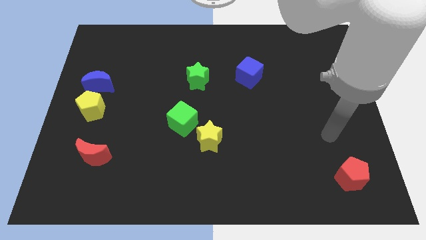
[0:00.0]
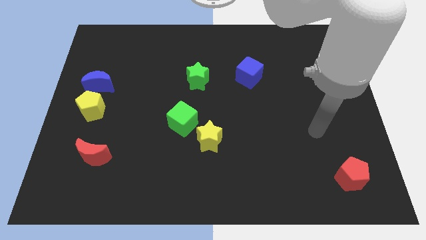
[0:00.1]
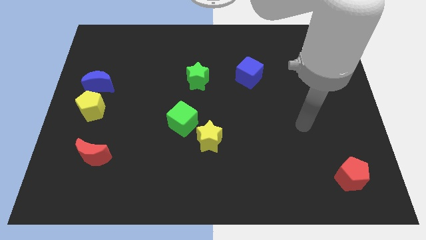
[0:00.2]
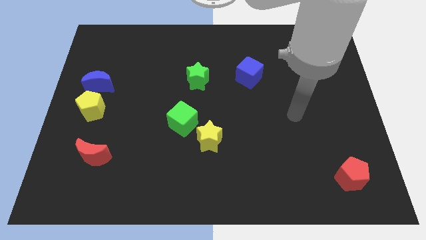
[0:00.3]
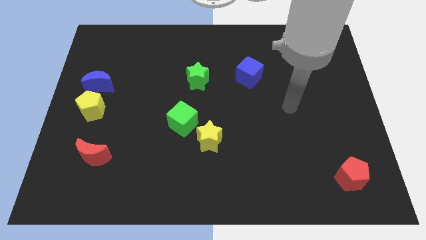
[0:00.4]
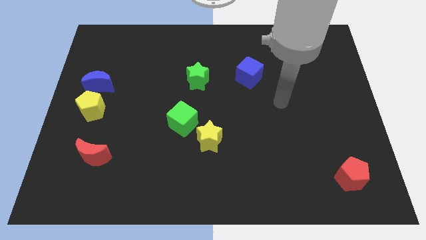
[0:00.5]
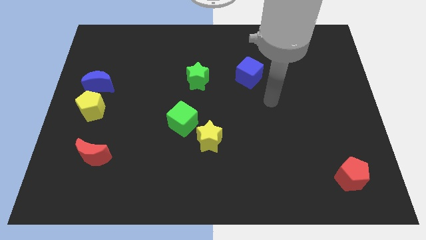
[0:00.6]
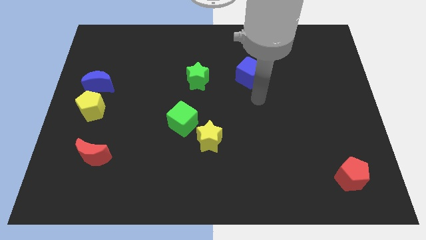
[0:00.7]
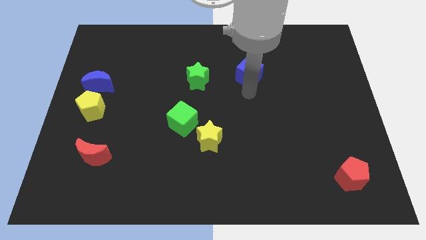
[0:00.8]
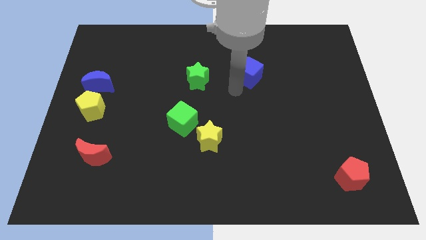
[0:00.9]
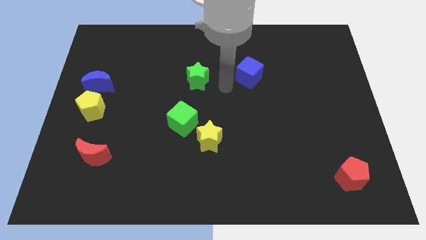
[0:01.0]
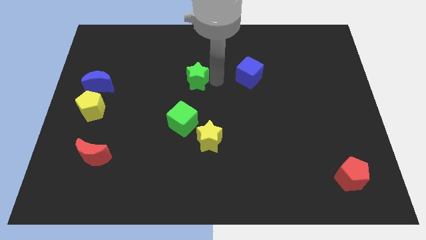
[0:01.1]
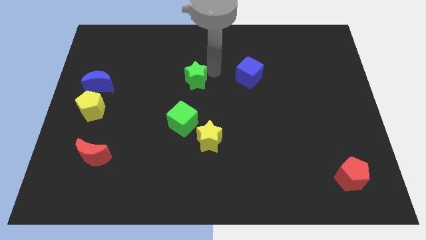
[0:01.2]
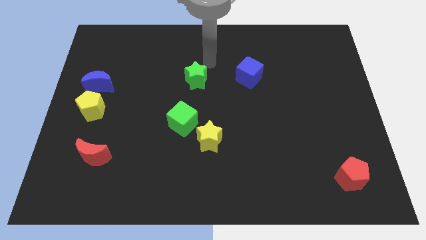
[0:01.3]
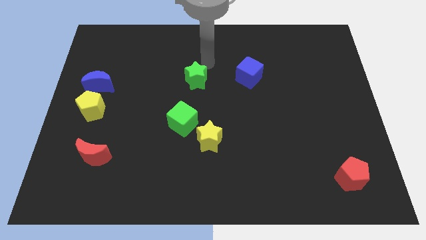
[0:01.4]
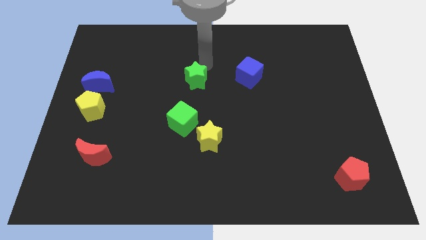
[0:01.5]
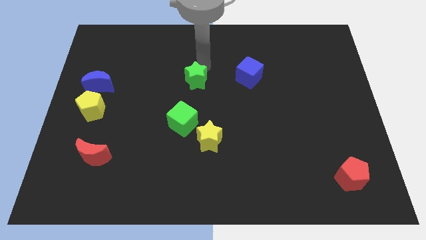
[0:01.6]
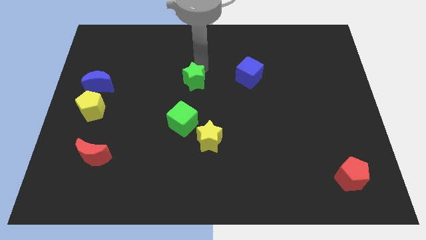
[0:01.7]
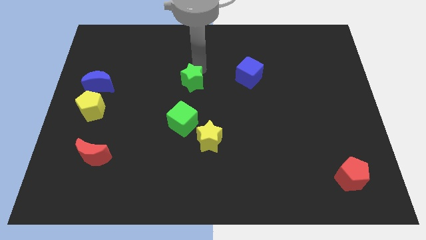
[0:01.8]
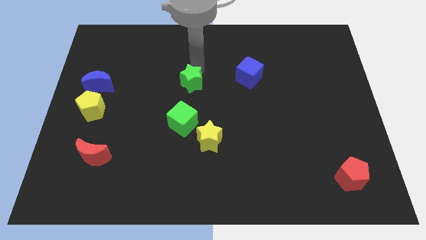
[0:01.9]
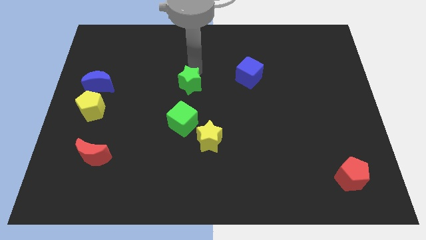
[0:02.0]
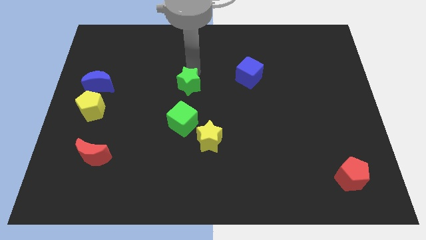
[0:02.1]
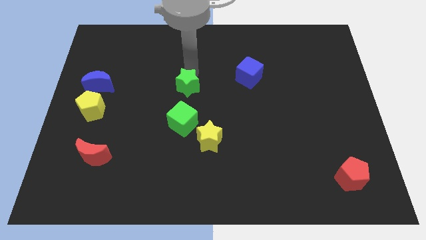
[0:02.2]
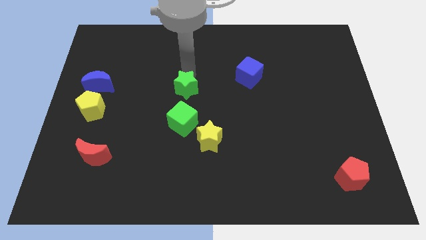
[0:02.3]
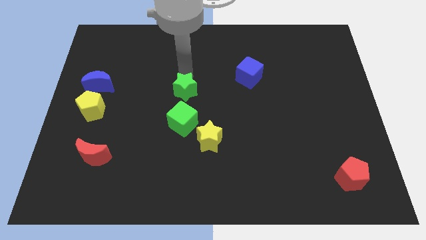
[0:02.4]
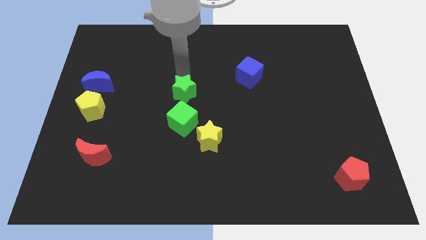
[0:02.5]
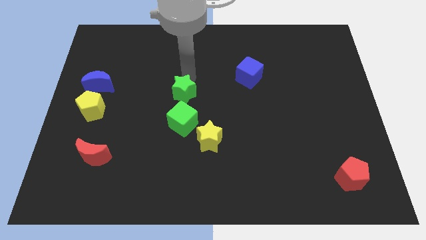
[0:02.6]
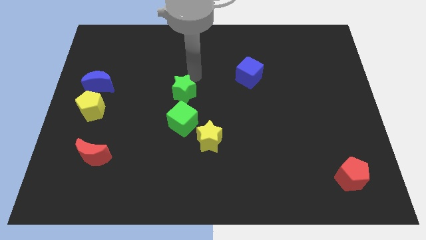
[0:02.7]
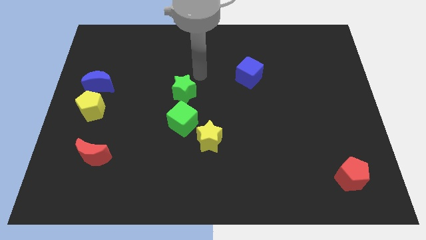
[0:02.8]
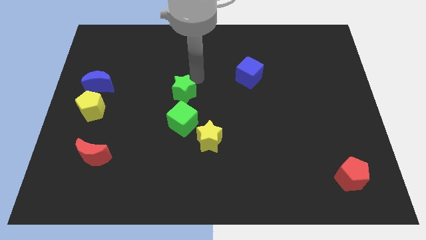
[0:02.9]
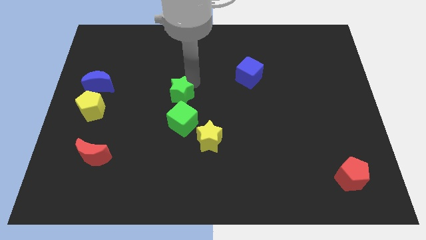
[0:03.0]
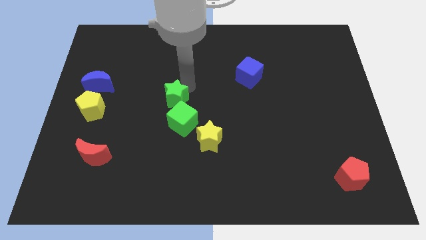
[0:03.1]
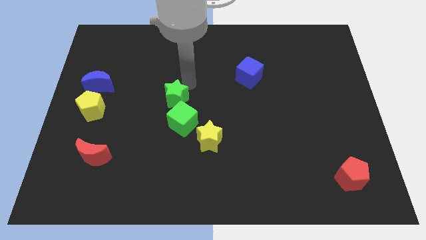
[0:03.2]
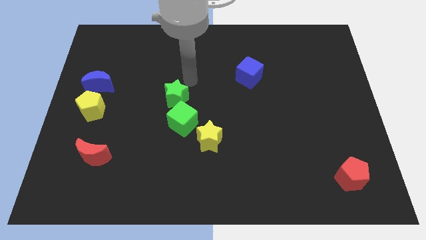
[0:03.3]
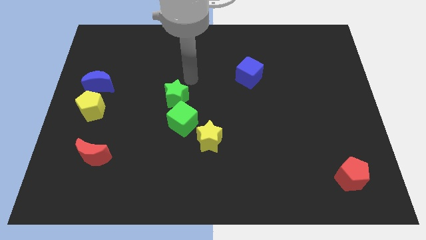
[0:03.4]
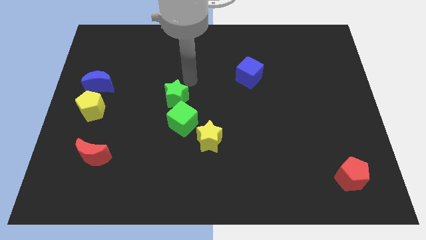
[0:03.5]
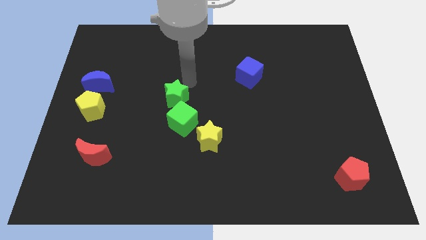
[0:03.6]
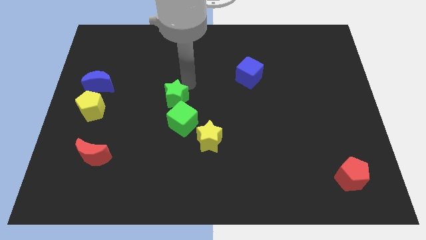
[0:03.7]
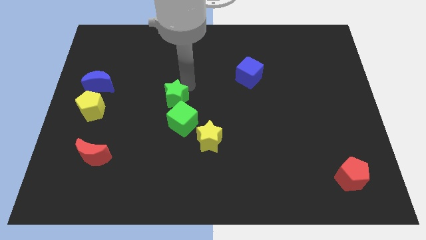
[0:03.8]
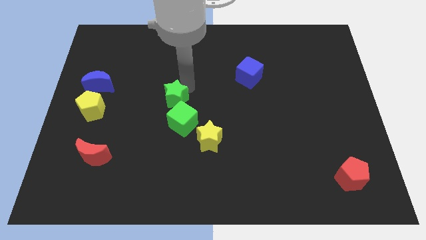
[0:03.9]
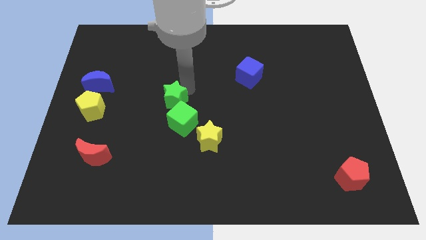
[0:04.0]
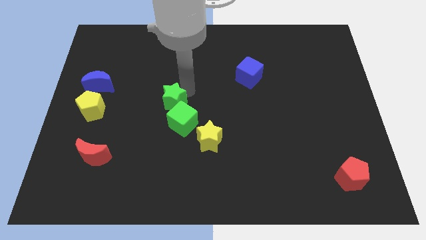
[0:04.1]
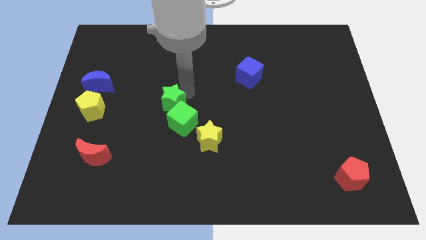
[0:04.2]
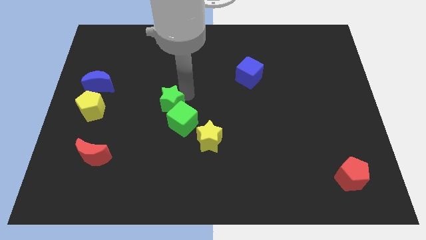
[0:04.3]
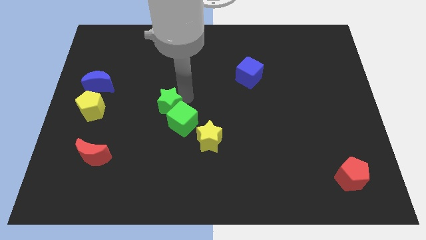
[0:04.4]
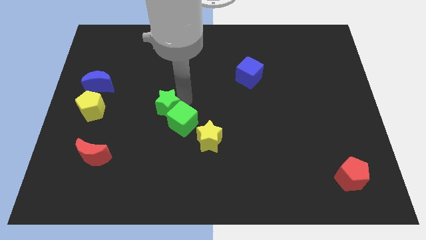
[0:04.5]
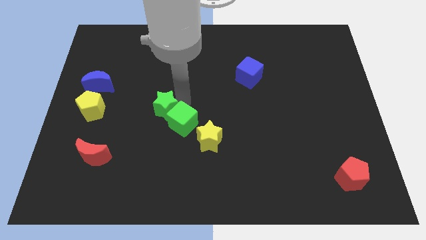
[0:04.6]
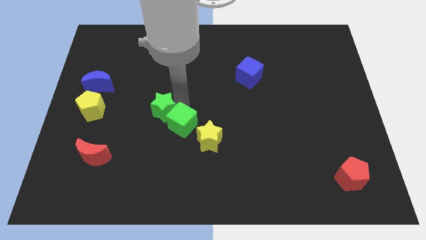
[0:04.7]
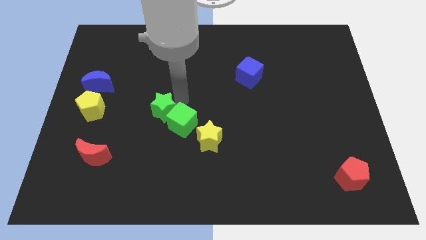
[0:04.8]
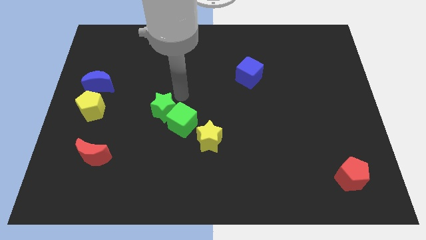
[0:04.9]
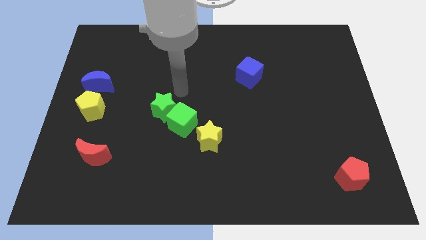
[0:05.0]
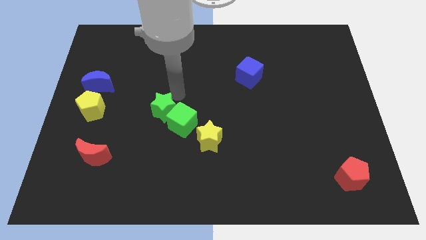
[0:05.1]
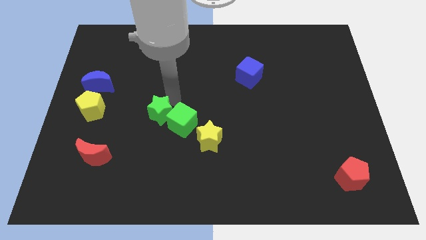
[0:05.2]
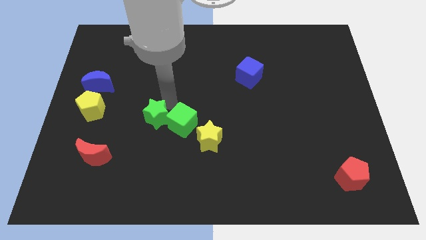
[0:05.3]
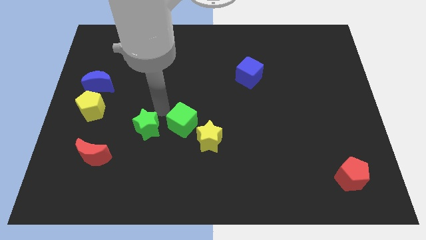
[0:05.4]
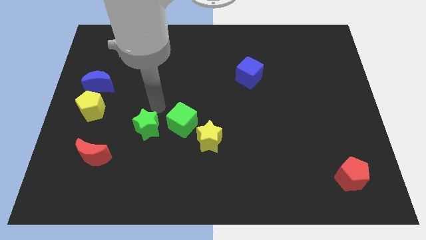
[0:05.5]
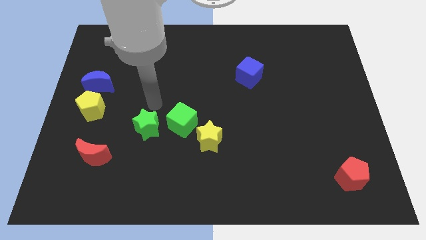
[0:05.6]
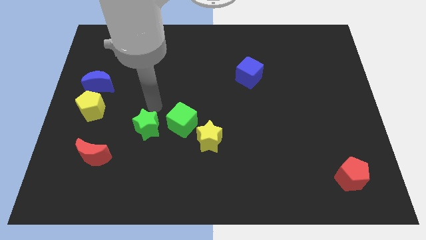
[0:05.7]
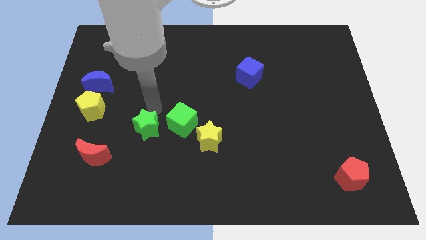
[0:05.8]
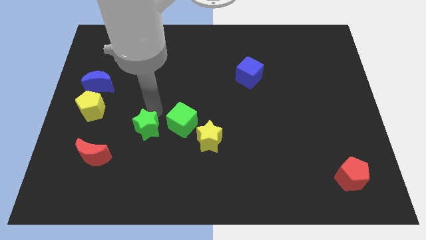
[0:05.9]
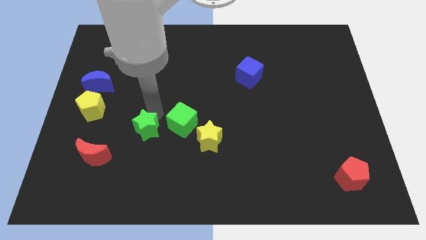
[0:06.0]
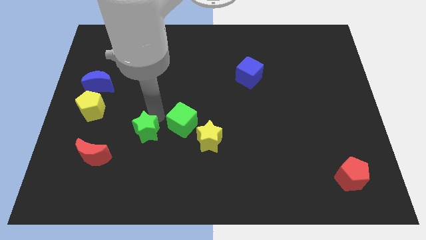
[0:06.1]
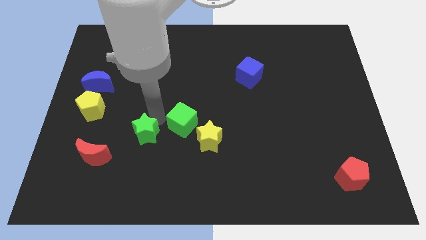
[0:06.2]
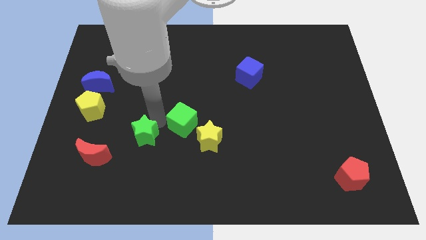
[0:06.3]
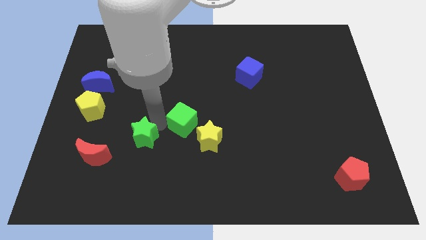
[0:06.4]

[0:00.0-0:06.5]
put the green star right of the red moon

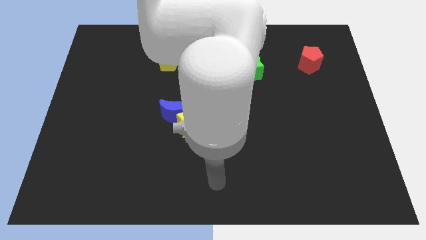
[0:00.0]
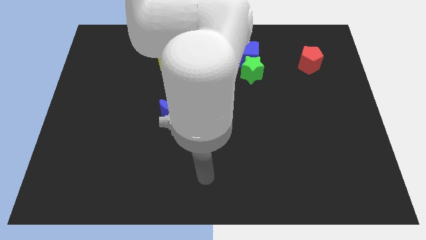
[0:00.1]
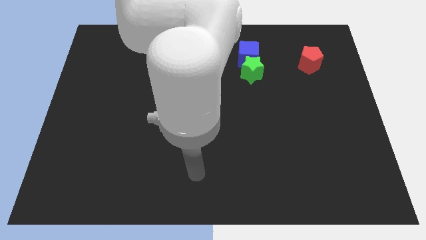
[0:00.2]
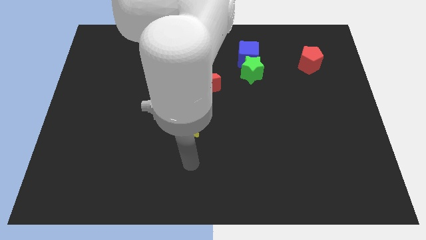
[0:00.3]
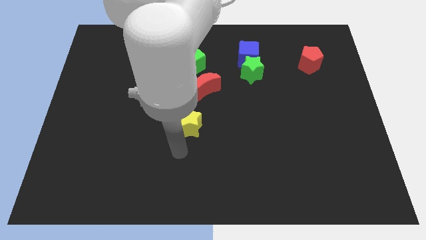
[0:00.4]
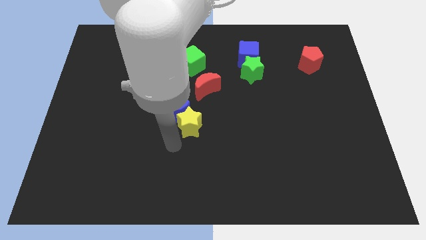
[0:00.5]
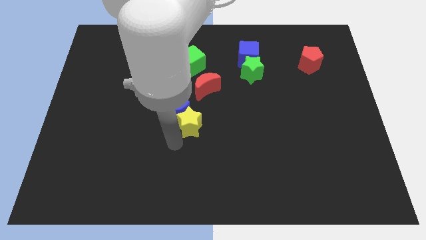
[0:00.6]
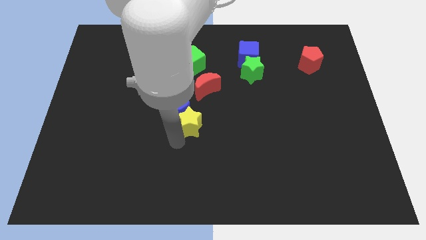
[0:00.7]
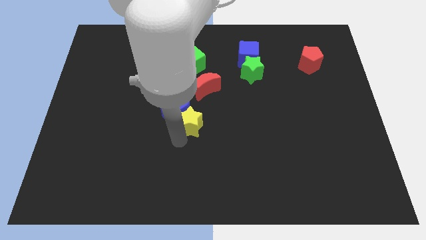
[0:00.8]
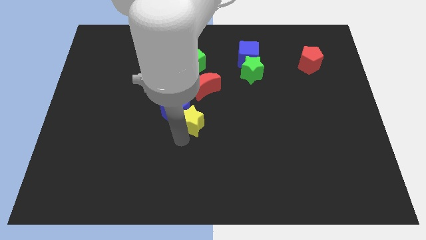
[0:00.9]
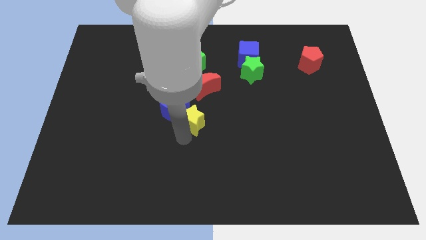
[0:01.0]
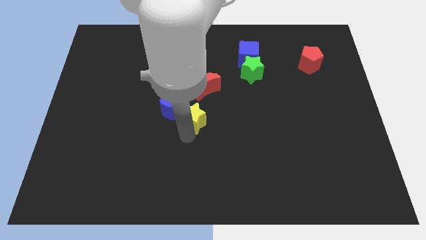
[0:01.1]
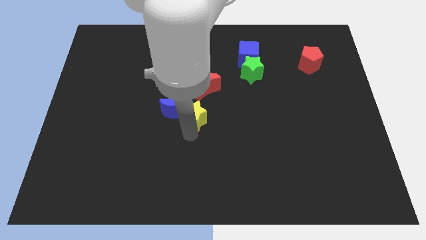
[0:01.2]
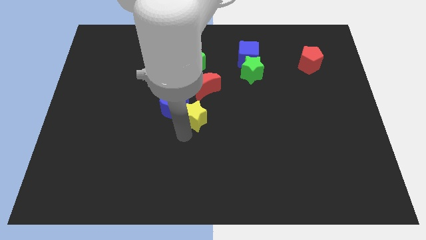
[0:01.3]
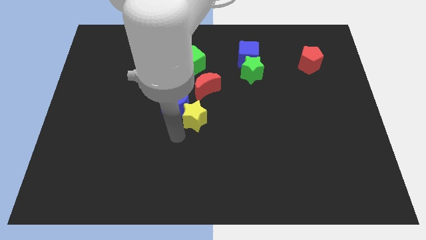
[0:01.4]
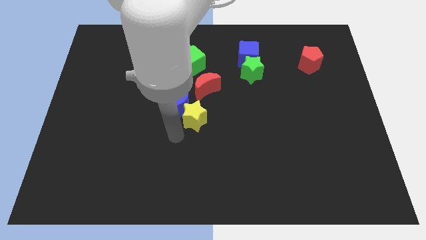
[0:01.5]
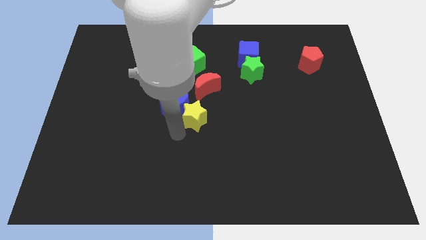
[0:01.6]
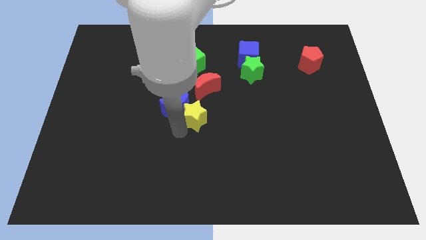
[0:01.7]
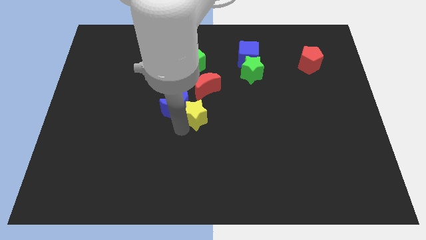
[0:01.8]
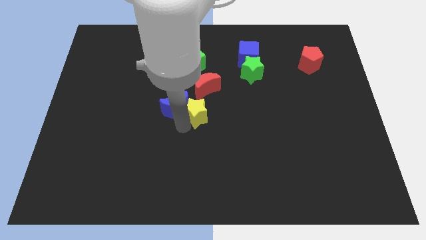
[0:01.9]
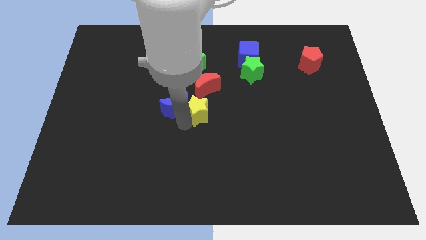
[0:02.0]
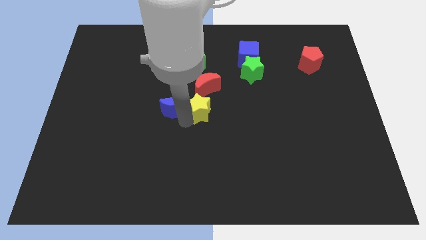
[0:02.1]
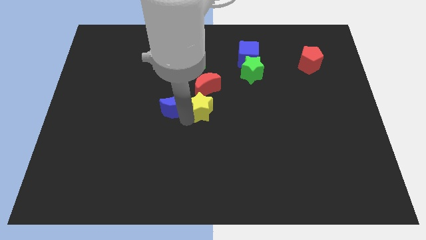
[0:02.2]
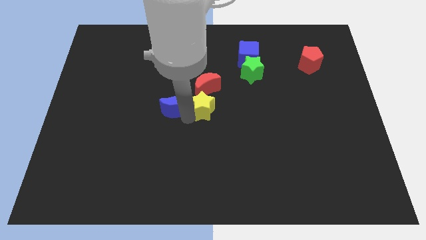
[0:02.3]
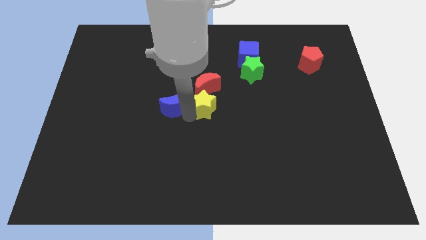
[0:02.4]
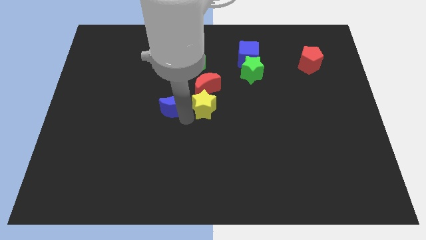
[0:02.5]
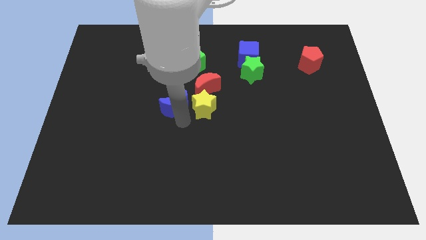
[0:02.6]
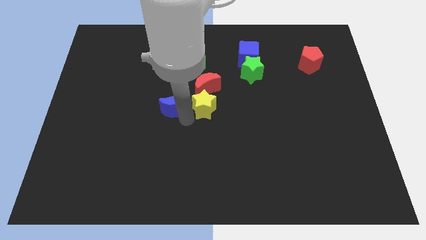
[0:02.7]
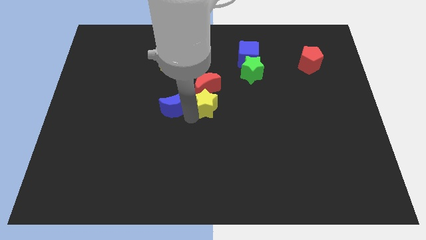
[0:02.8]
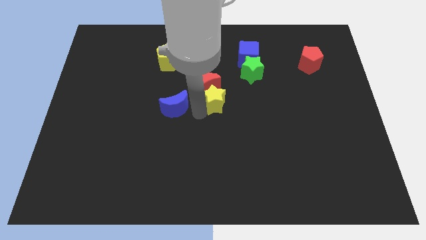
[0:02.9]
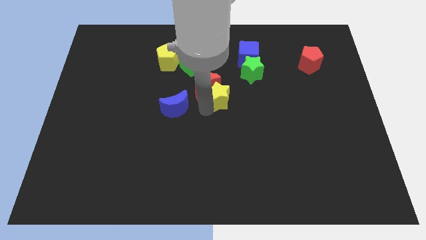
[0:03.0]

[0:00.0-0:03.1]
move the yellow star to the bottom left side of the green star
